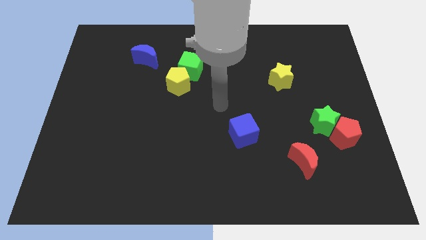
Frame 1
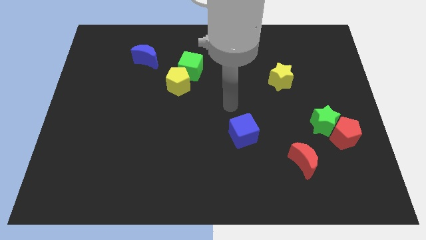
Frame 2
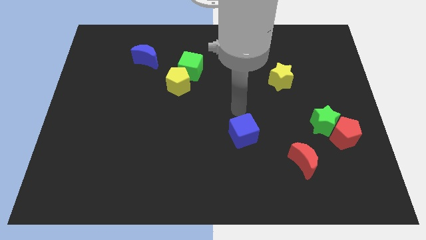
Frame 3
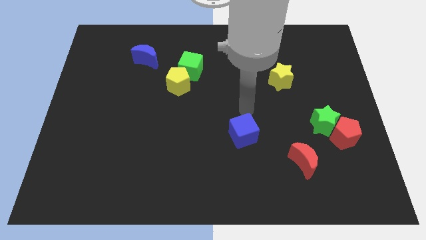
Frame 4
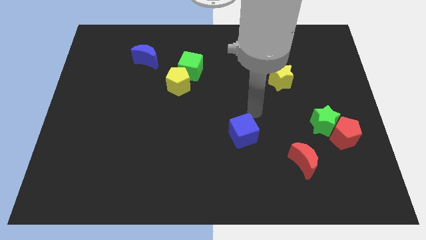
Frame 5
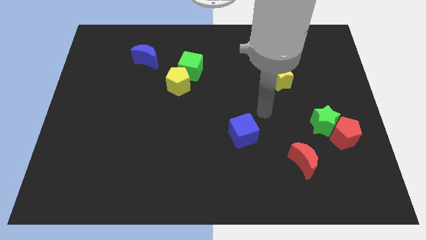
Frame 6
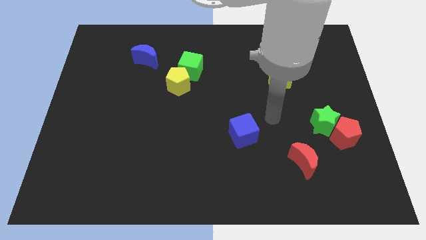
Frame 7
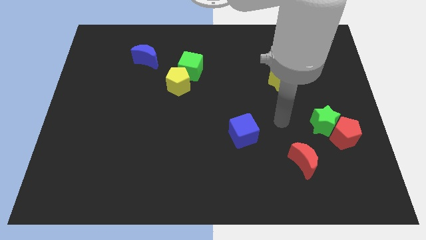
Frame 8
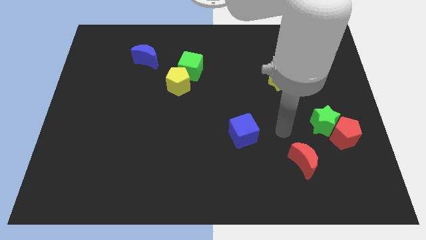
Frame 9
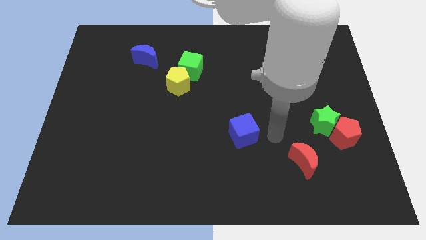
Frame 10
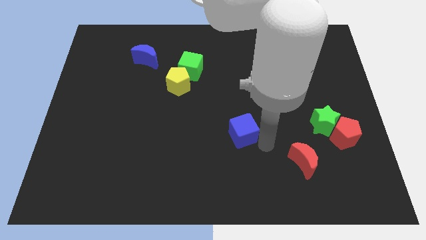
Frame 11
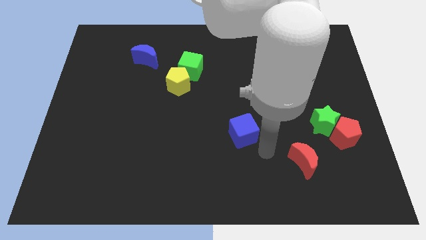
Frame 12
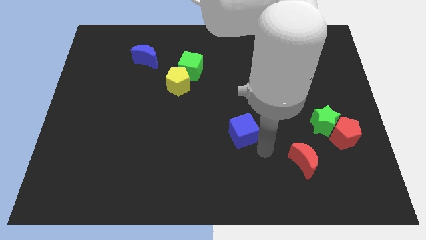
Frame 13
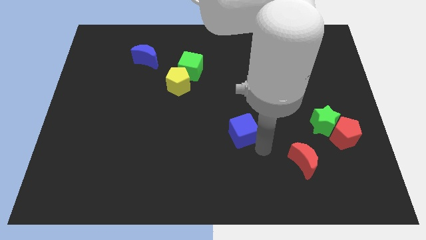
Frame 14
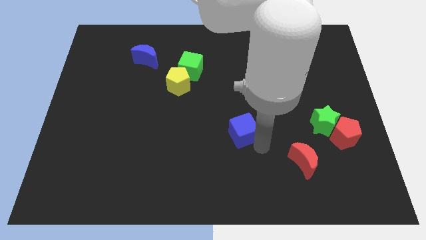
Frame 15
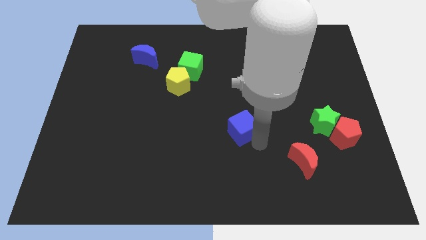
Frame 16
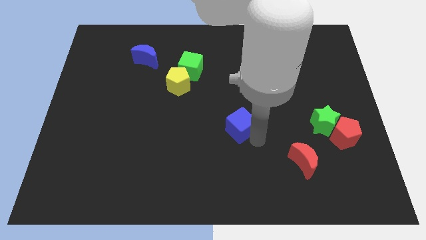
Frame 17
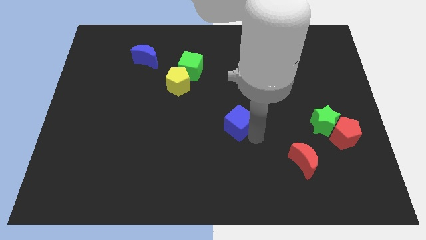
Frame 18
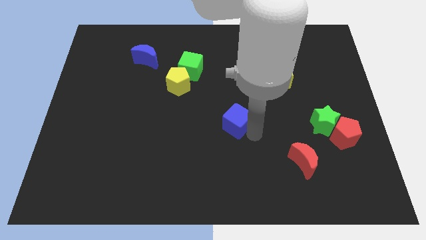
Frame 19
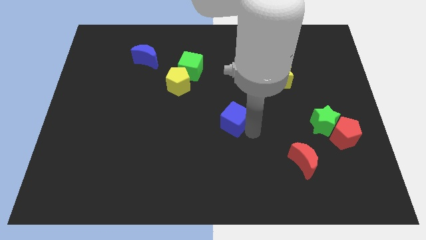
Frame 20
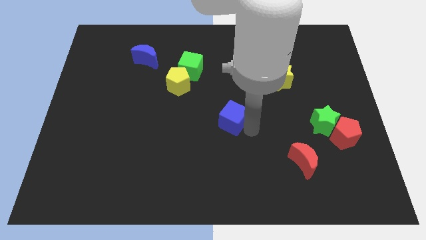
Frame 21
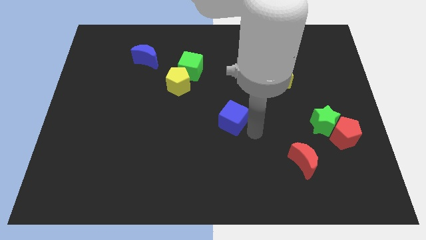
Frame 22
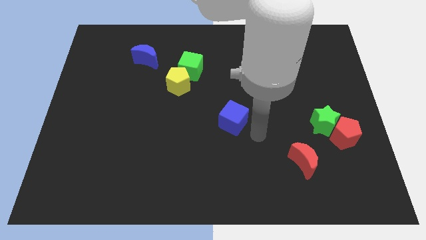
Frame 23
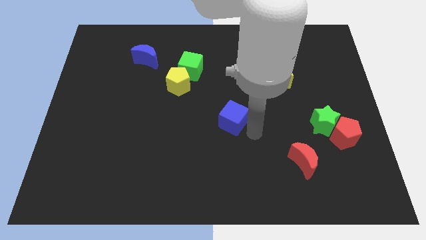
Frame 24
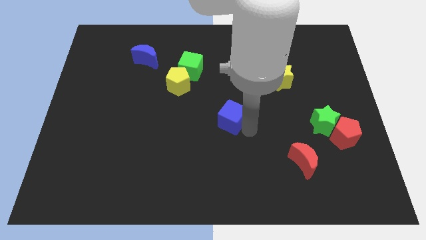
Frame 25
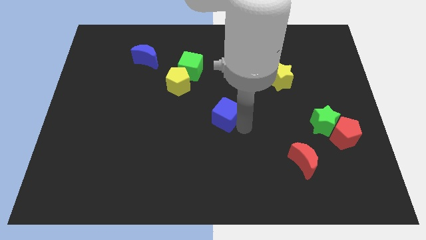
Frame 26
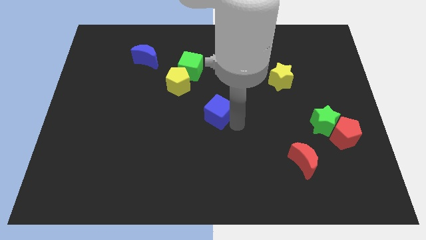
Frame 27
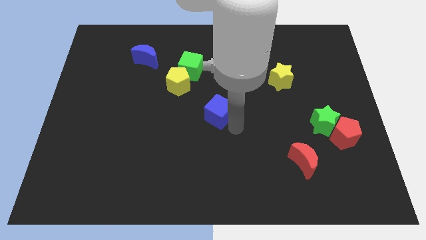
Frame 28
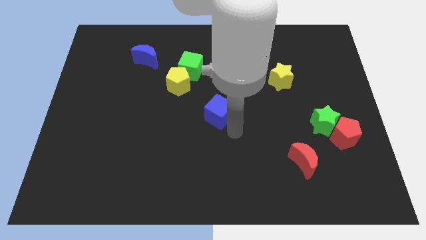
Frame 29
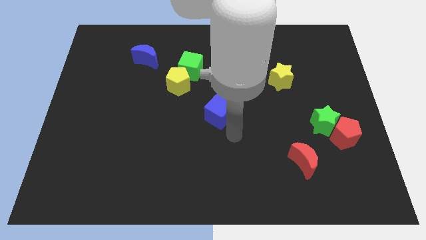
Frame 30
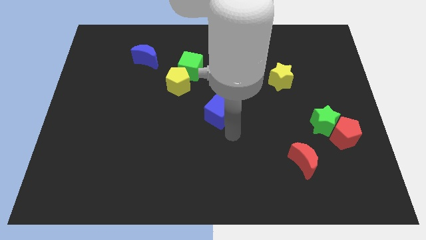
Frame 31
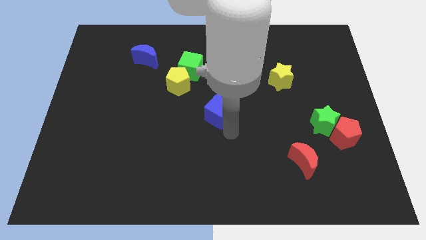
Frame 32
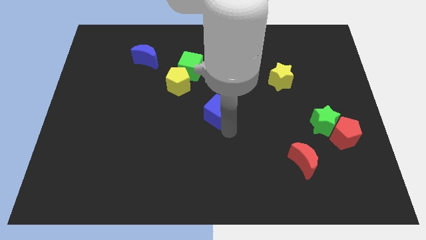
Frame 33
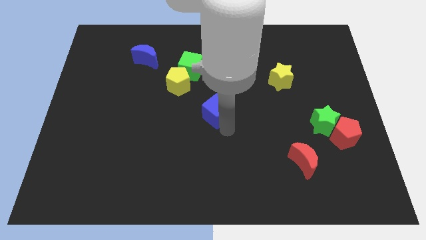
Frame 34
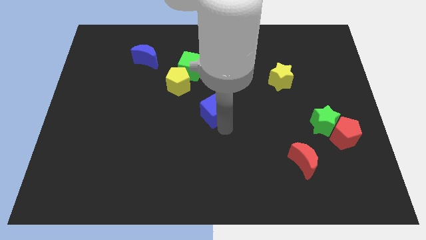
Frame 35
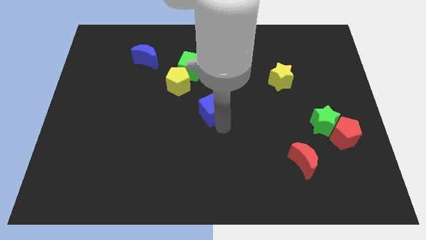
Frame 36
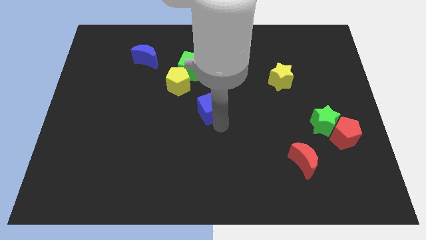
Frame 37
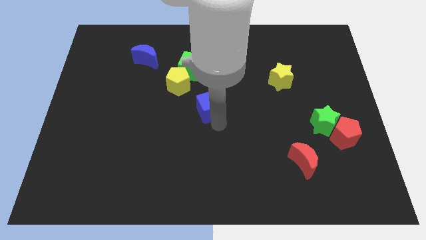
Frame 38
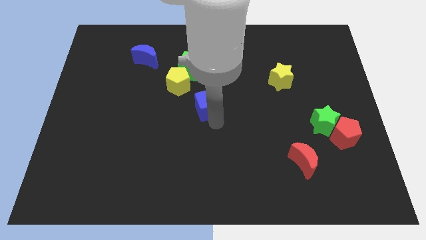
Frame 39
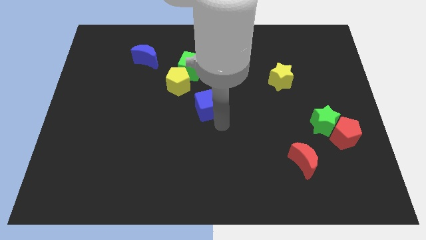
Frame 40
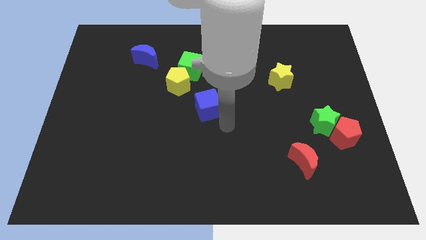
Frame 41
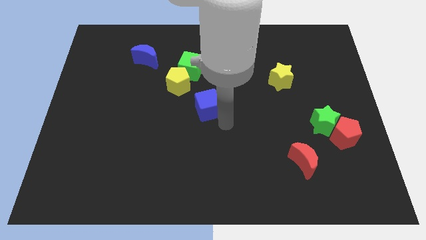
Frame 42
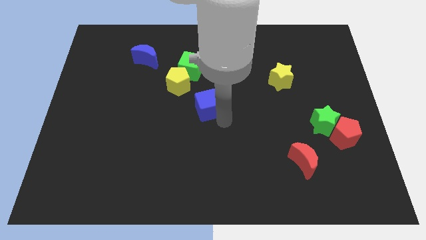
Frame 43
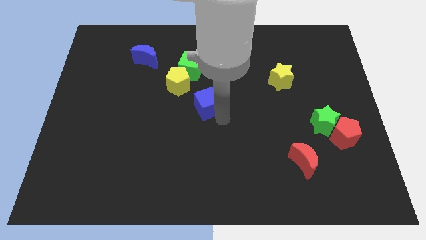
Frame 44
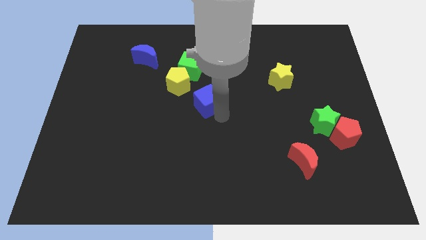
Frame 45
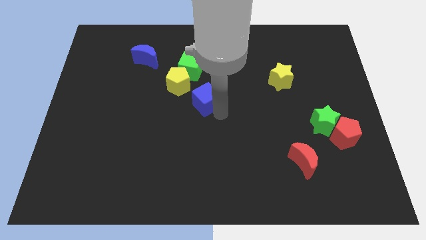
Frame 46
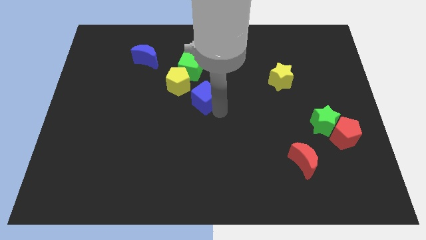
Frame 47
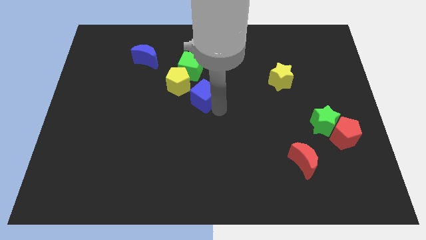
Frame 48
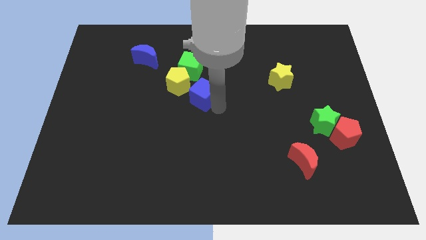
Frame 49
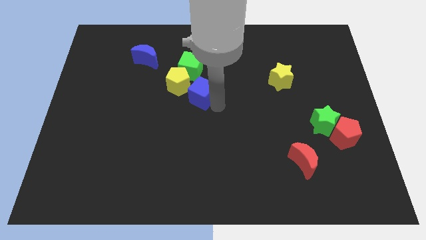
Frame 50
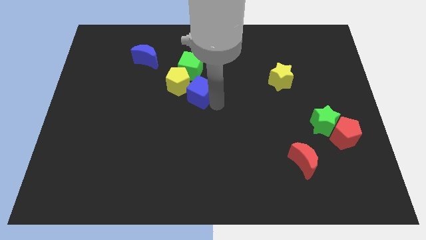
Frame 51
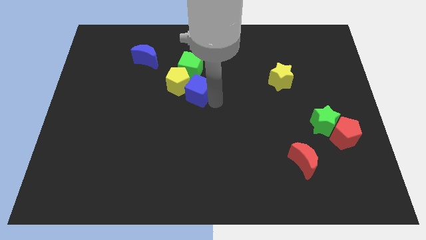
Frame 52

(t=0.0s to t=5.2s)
put the blue cube next to the yellow pentagon

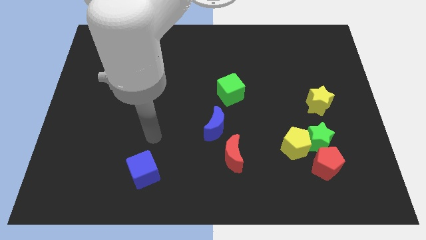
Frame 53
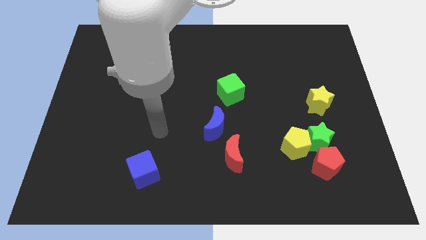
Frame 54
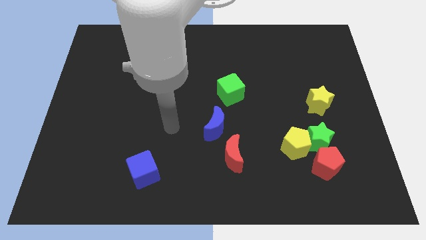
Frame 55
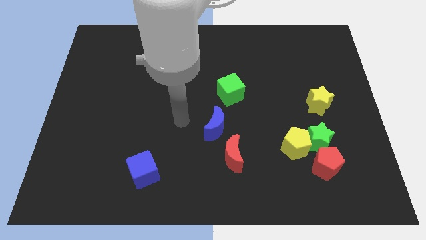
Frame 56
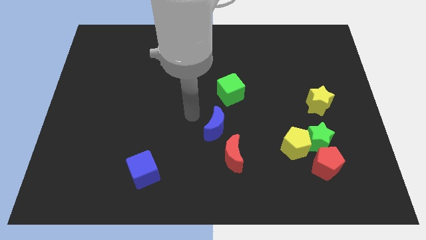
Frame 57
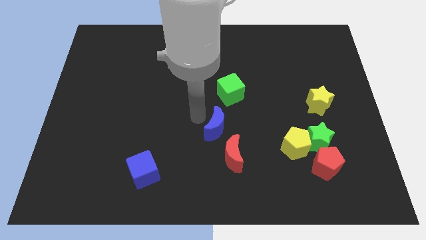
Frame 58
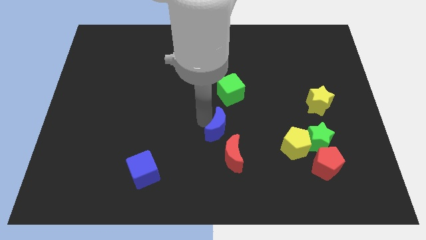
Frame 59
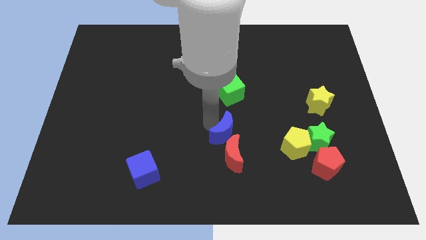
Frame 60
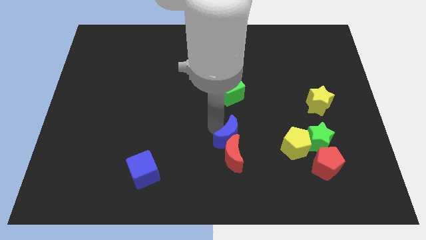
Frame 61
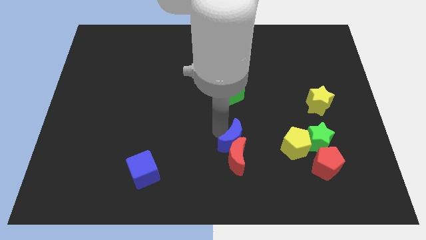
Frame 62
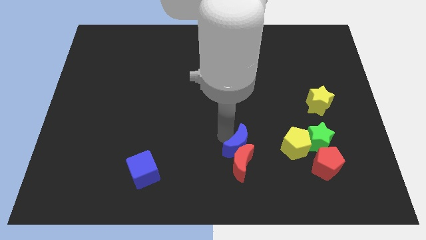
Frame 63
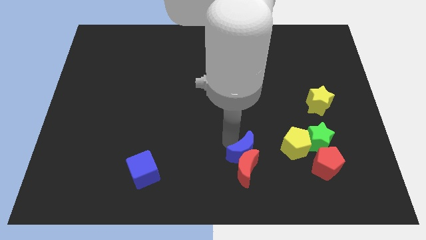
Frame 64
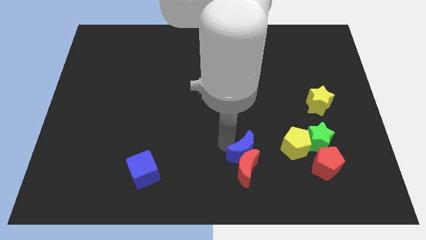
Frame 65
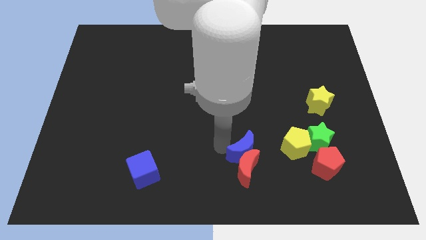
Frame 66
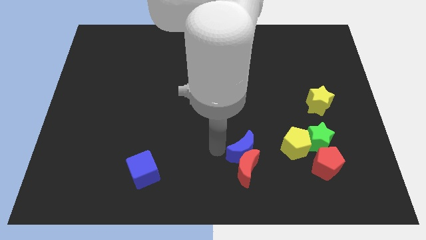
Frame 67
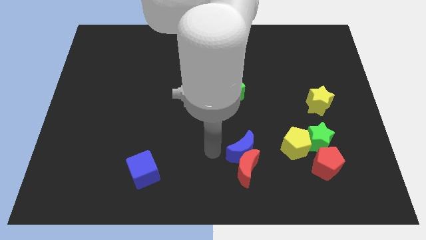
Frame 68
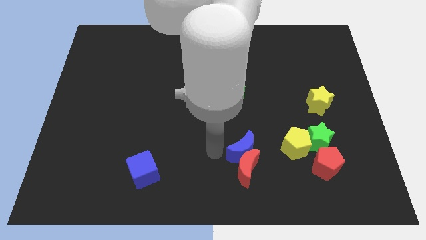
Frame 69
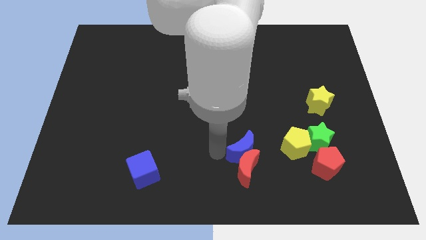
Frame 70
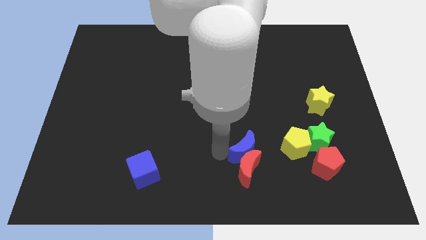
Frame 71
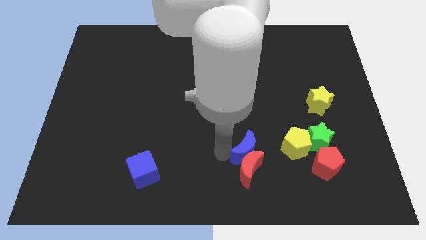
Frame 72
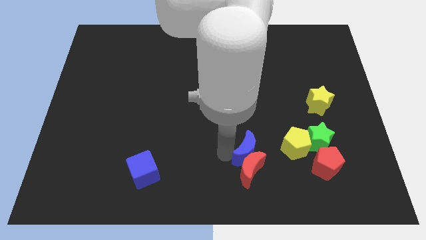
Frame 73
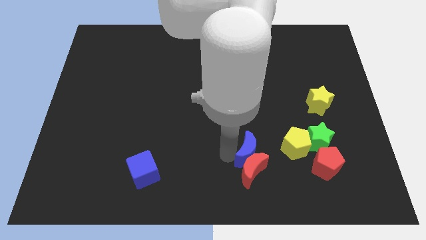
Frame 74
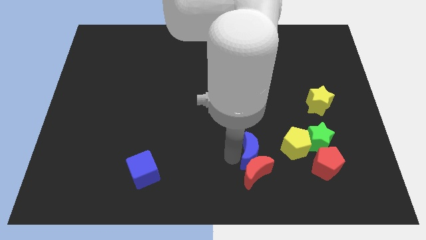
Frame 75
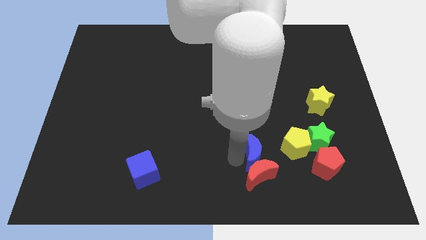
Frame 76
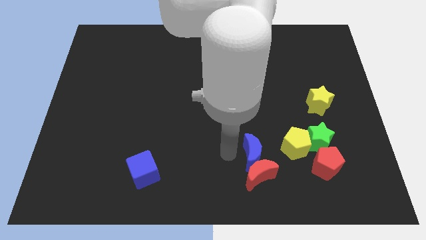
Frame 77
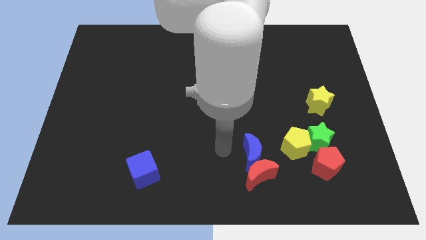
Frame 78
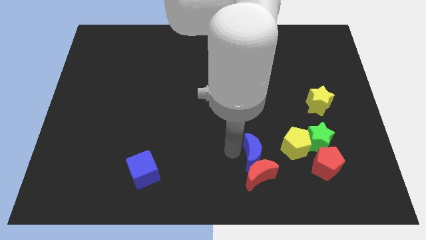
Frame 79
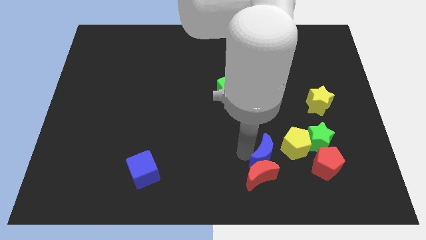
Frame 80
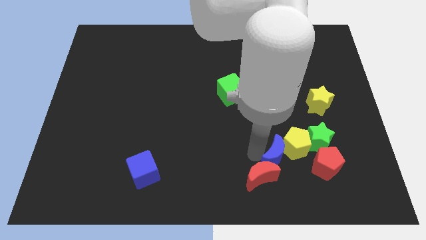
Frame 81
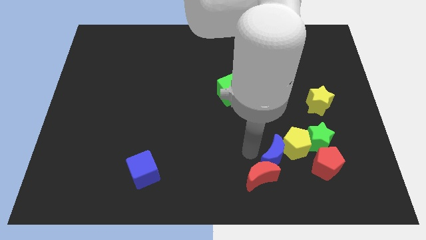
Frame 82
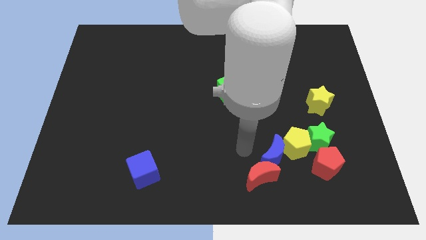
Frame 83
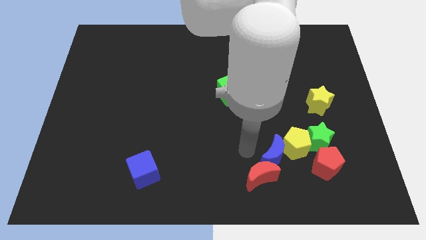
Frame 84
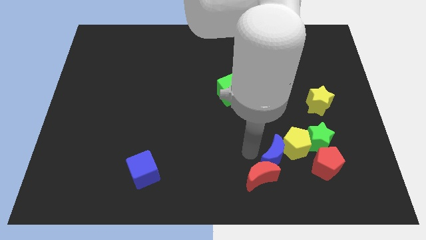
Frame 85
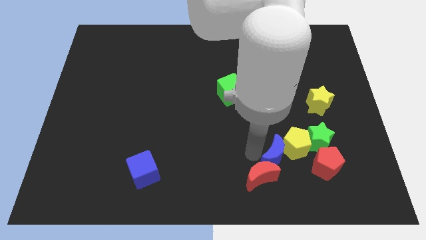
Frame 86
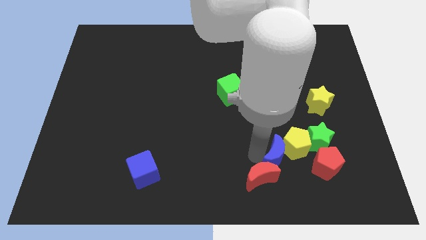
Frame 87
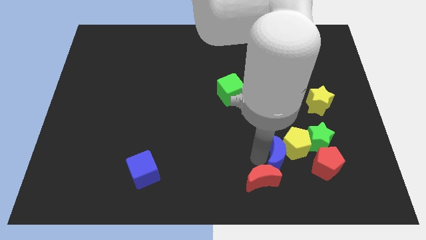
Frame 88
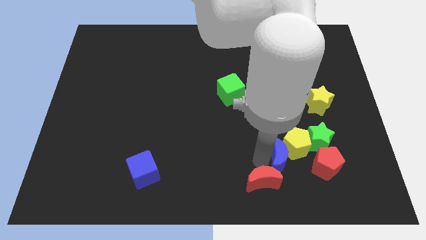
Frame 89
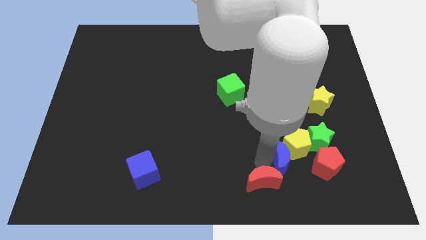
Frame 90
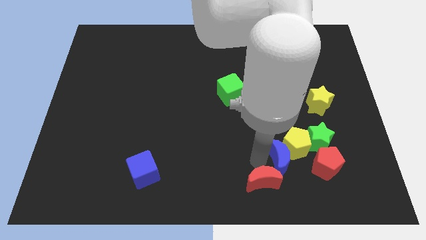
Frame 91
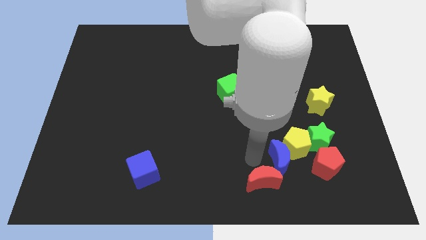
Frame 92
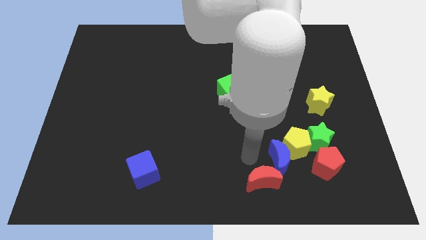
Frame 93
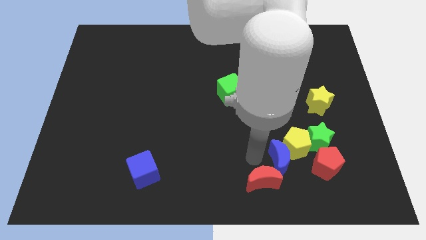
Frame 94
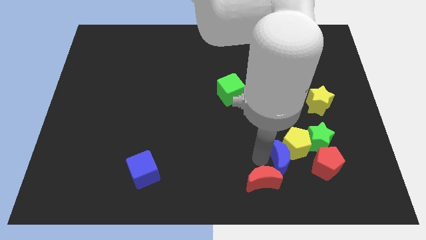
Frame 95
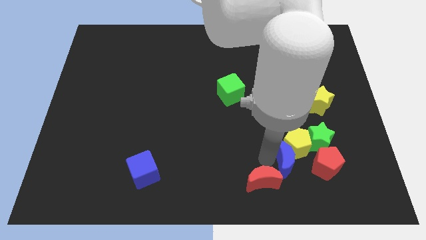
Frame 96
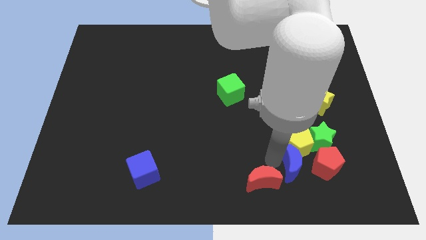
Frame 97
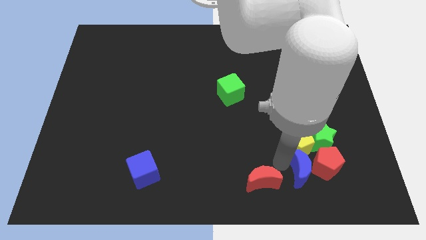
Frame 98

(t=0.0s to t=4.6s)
push the blue moon next to the red pentagon
